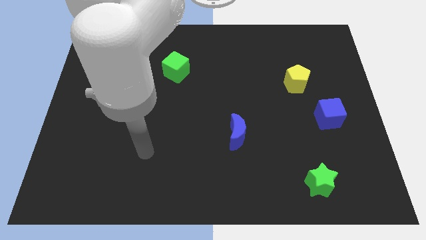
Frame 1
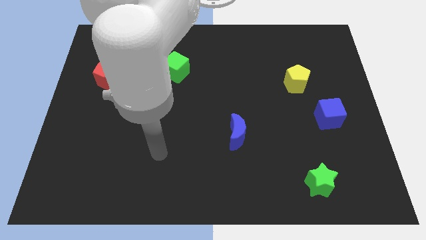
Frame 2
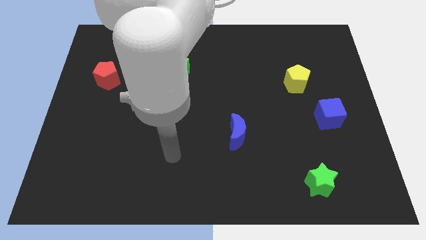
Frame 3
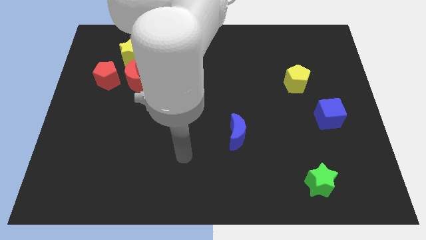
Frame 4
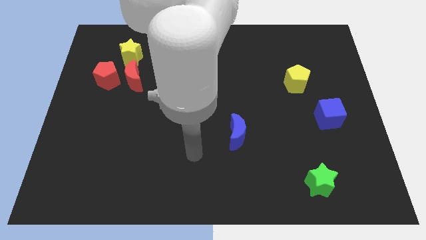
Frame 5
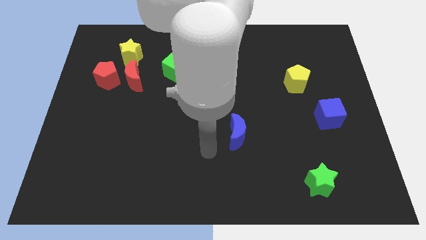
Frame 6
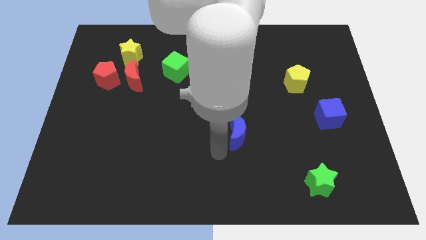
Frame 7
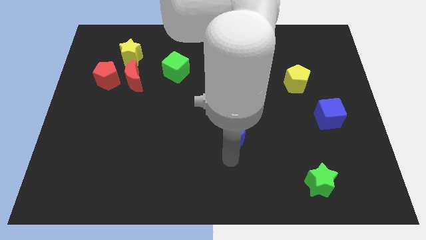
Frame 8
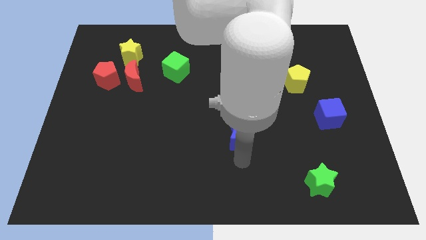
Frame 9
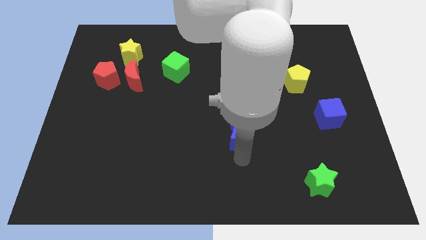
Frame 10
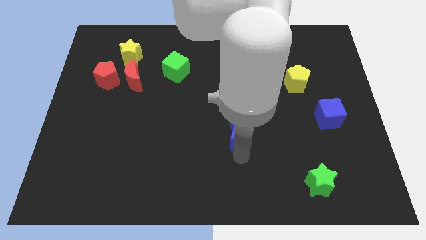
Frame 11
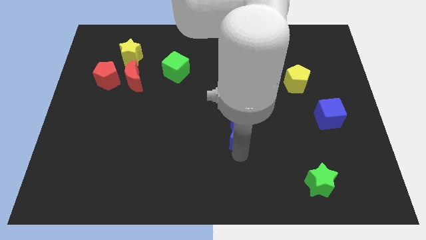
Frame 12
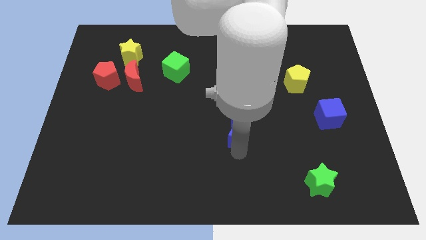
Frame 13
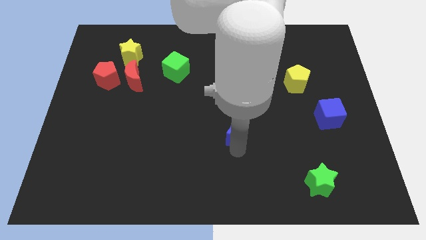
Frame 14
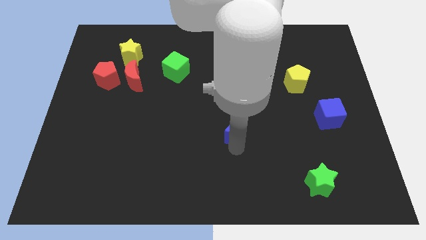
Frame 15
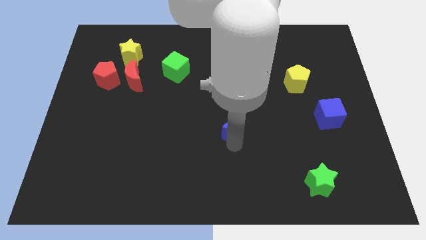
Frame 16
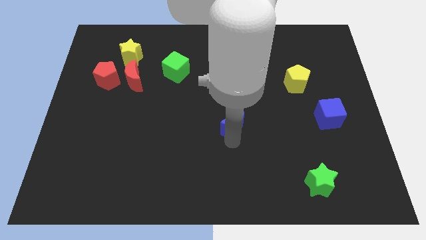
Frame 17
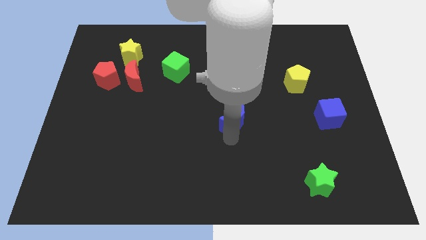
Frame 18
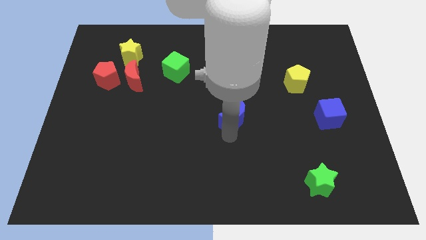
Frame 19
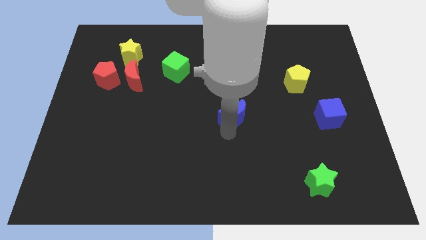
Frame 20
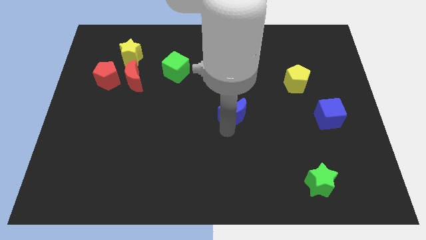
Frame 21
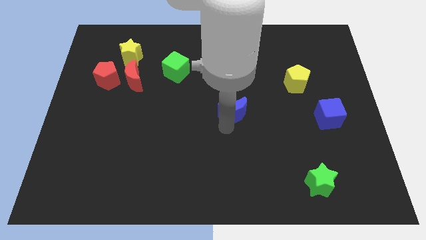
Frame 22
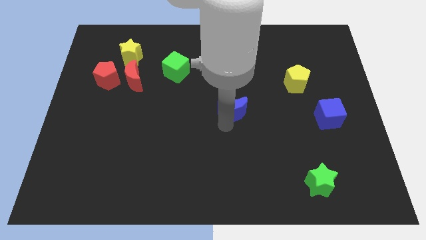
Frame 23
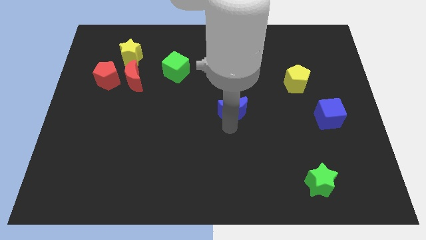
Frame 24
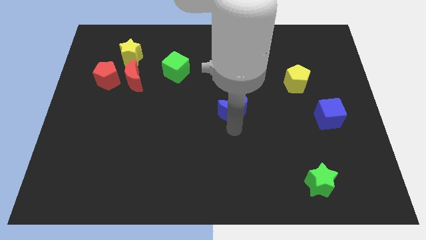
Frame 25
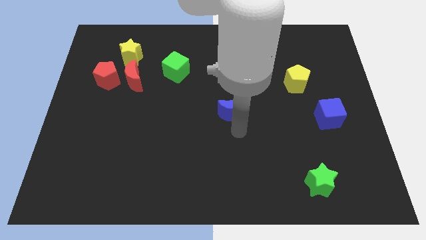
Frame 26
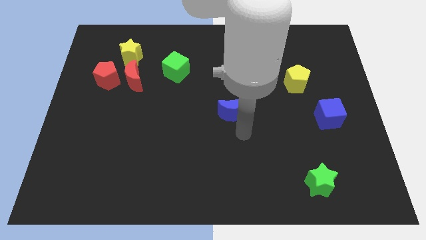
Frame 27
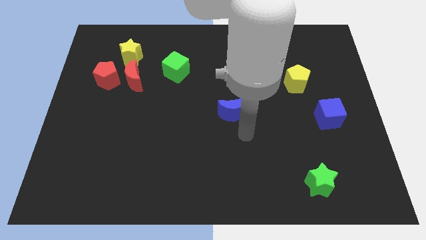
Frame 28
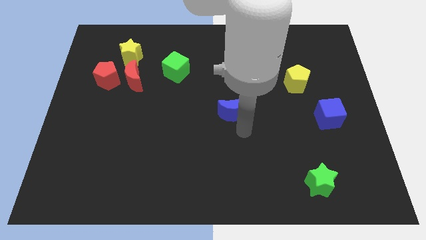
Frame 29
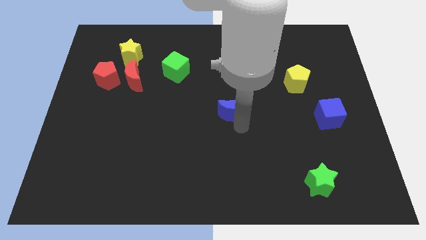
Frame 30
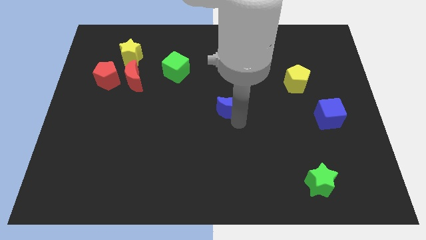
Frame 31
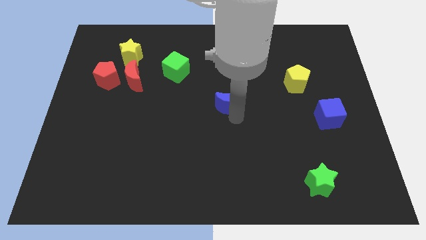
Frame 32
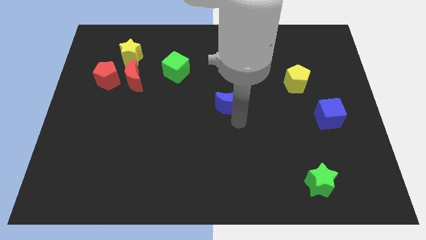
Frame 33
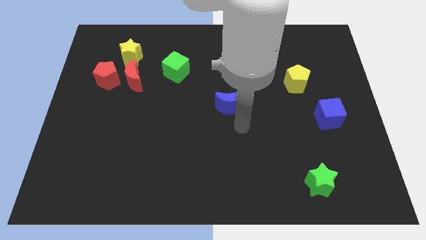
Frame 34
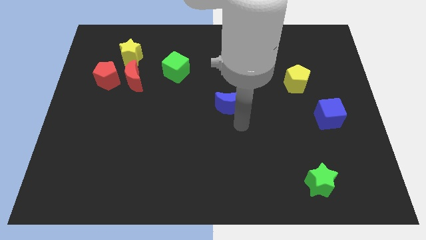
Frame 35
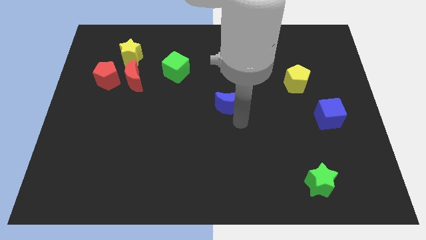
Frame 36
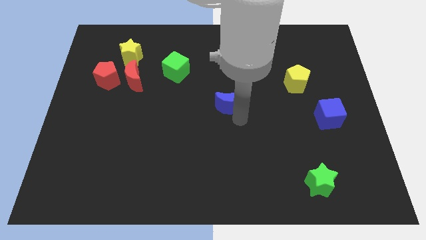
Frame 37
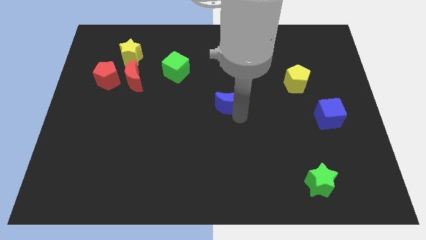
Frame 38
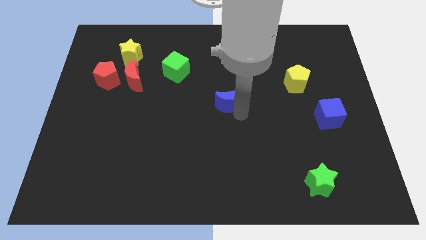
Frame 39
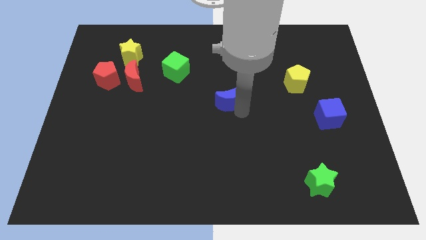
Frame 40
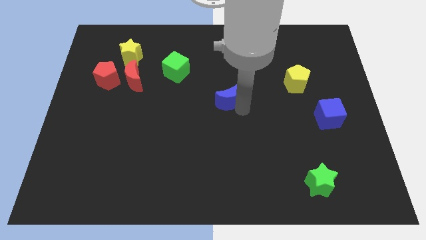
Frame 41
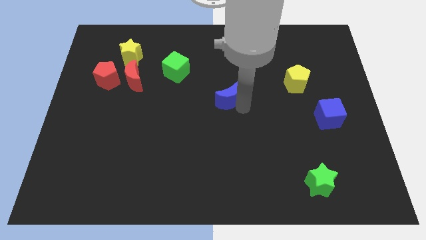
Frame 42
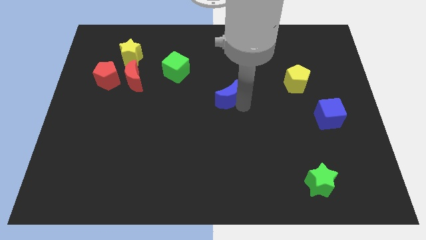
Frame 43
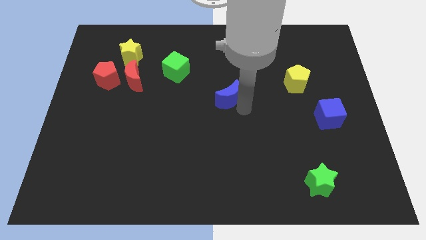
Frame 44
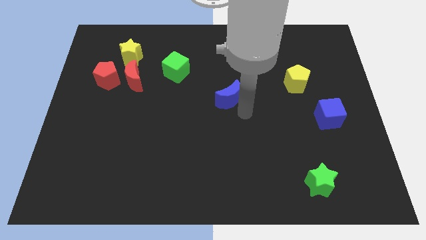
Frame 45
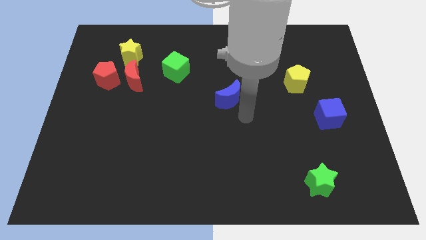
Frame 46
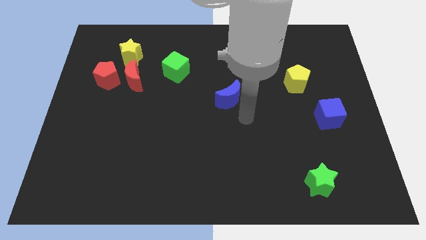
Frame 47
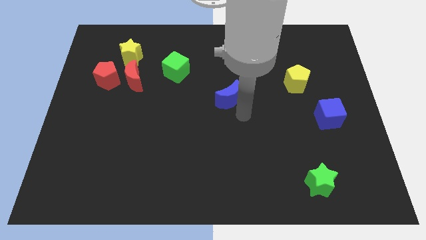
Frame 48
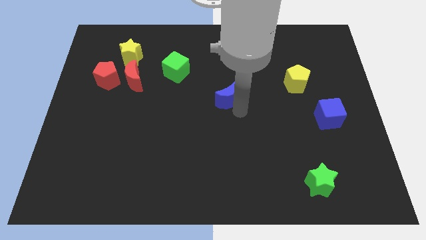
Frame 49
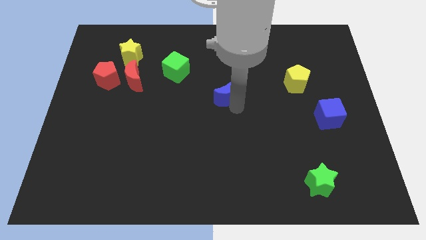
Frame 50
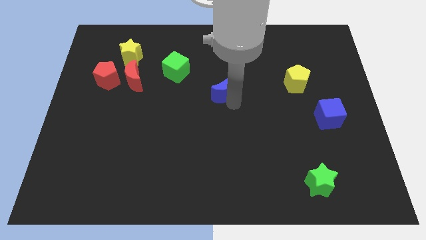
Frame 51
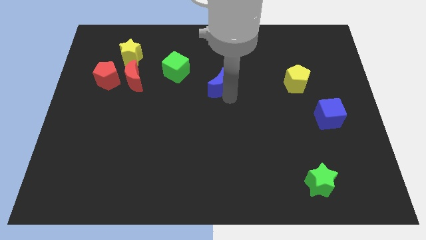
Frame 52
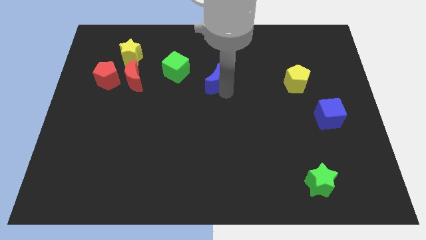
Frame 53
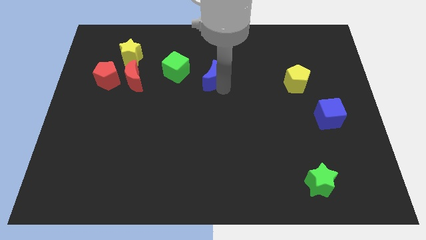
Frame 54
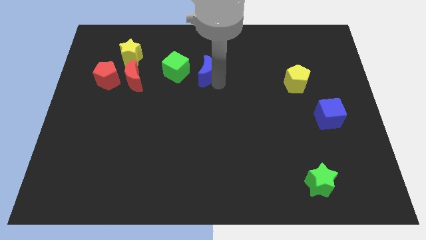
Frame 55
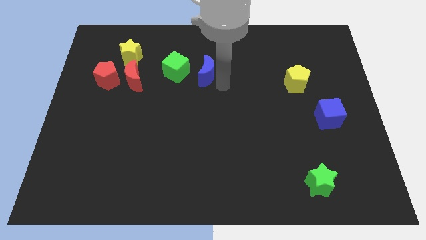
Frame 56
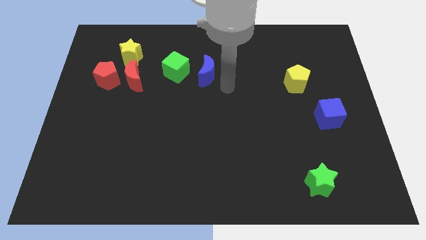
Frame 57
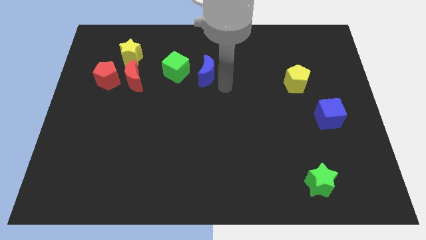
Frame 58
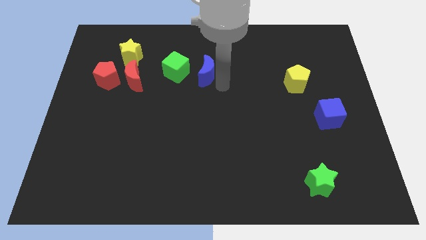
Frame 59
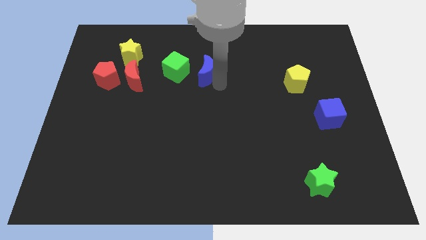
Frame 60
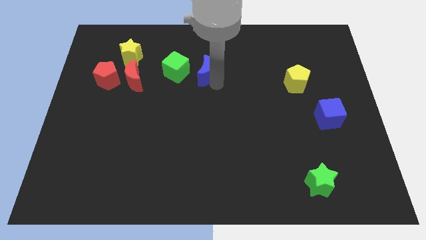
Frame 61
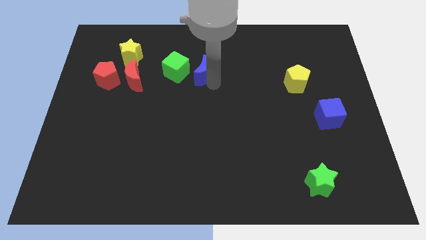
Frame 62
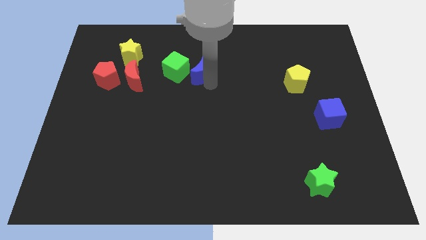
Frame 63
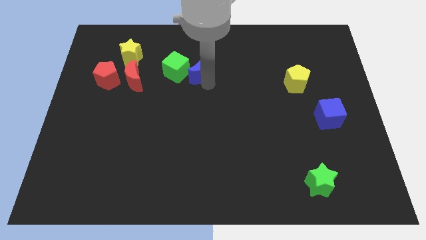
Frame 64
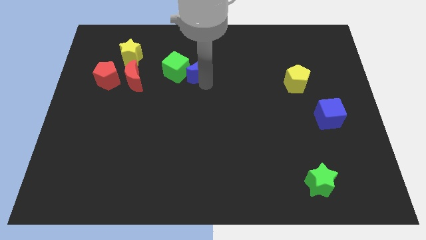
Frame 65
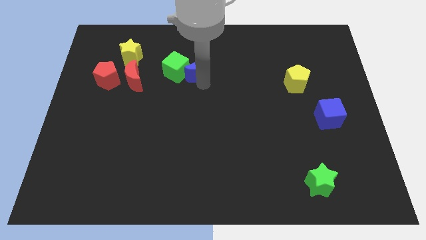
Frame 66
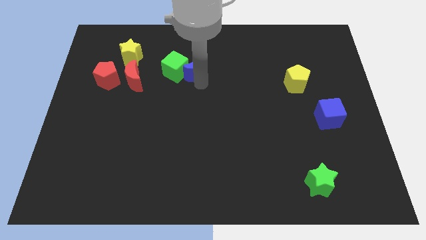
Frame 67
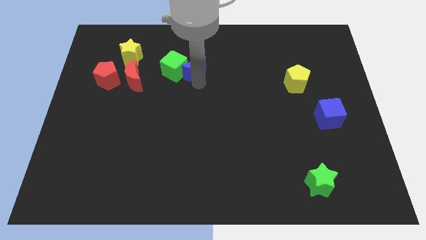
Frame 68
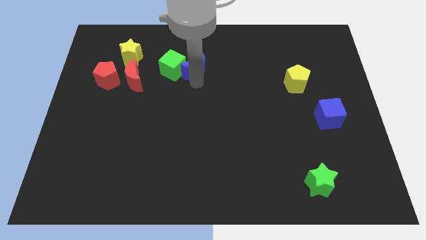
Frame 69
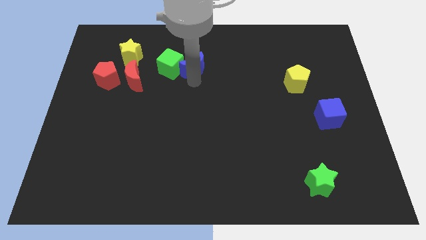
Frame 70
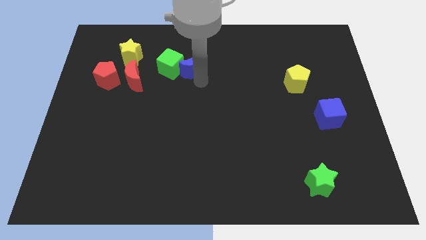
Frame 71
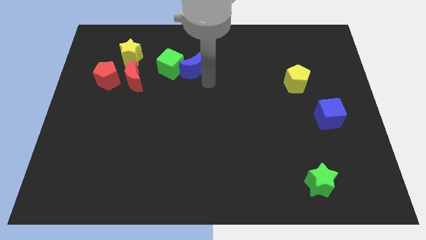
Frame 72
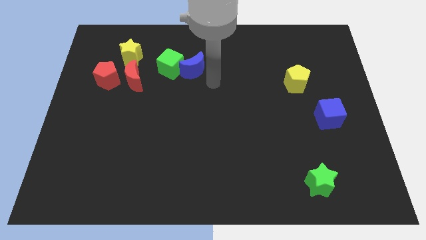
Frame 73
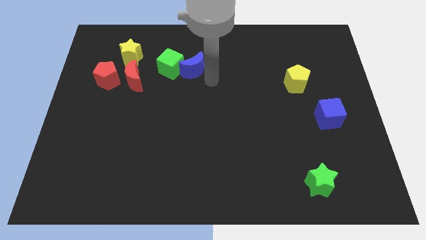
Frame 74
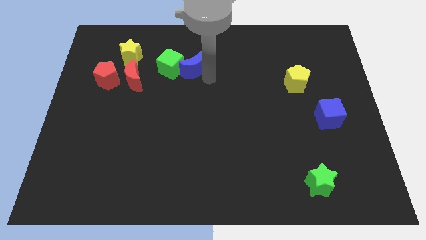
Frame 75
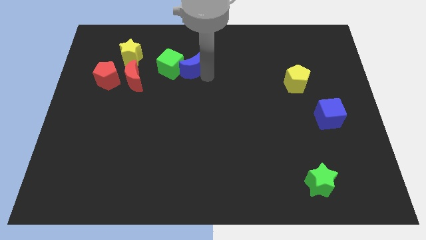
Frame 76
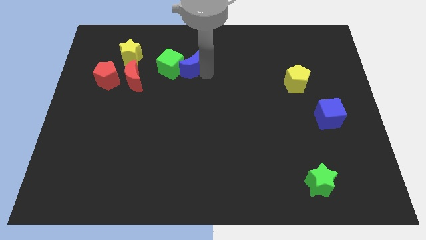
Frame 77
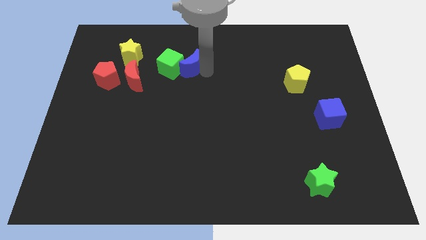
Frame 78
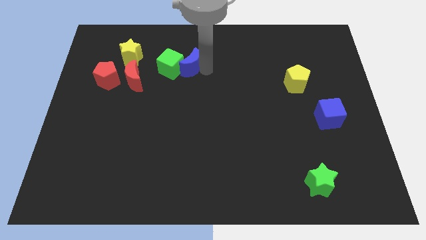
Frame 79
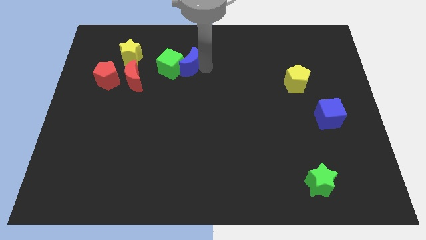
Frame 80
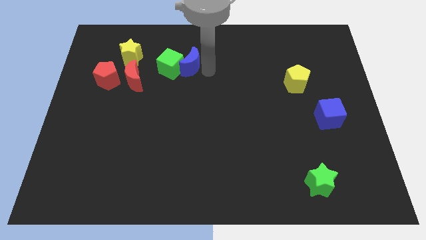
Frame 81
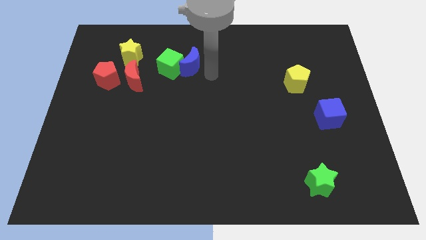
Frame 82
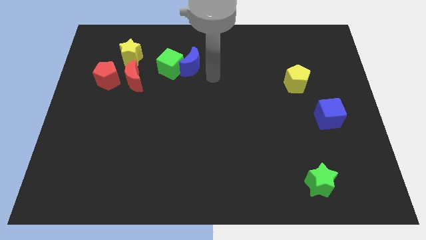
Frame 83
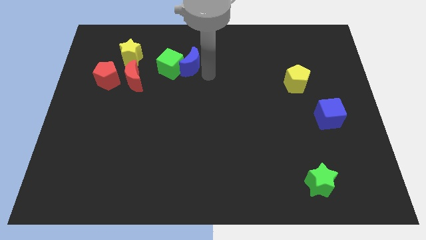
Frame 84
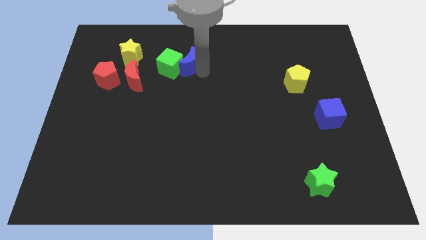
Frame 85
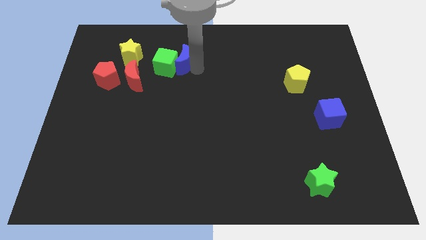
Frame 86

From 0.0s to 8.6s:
move the blue moon to the right of the yellow star
